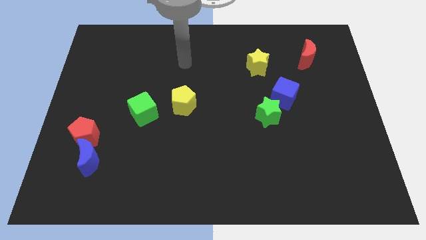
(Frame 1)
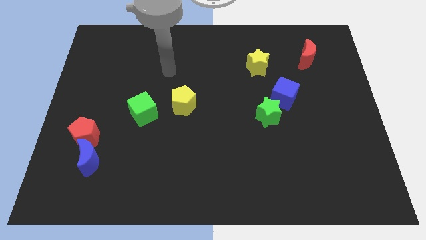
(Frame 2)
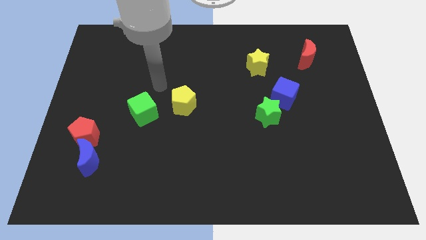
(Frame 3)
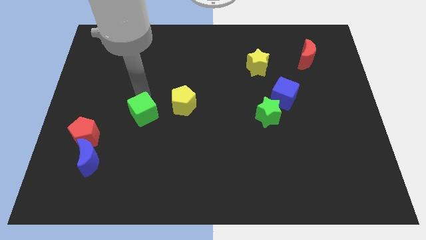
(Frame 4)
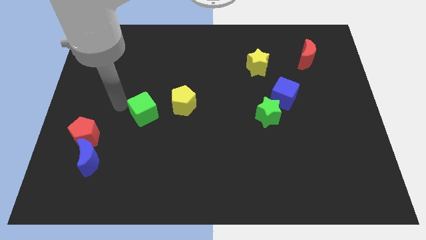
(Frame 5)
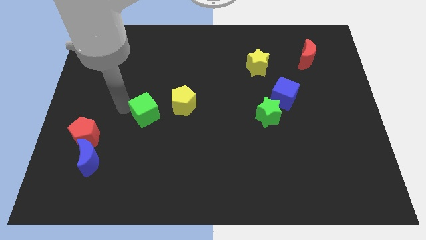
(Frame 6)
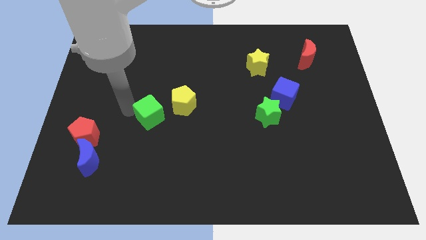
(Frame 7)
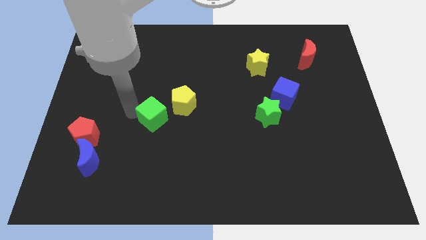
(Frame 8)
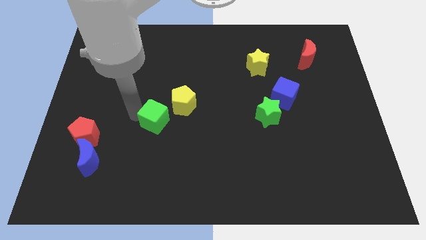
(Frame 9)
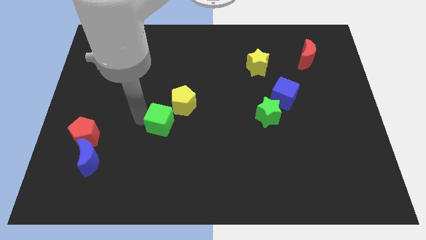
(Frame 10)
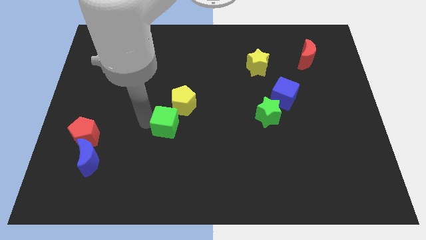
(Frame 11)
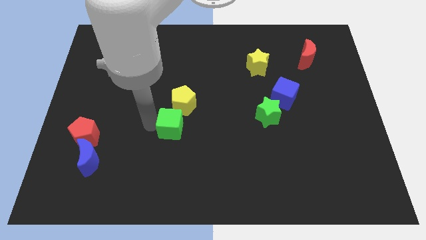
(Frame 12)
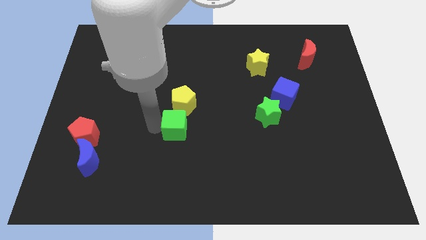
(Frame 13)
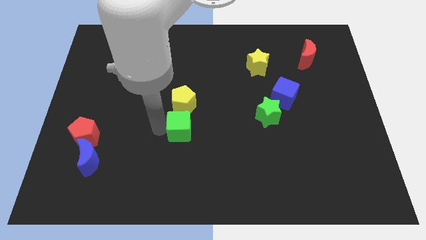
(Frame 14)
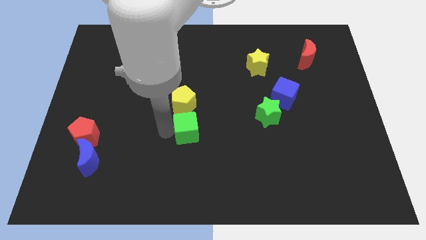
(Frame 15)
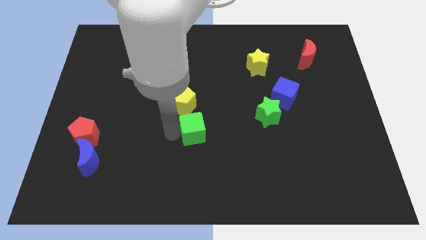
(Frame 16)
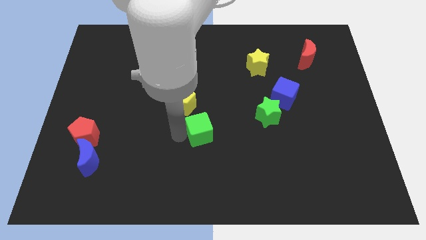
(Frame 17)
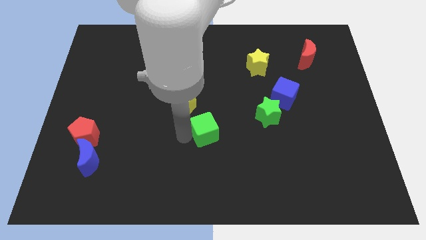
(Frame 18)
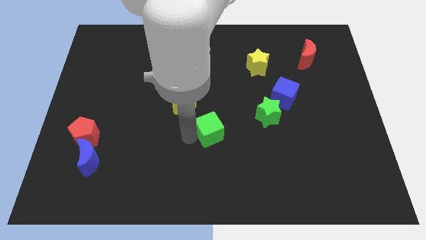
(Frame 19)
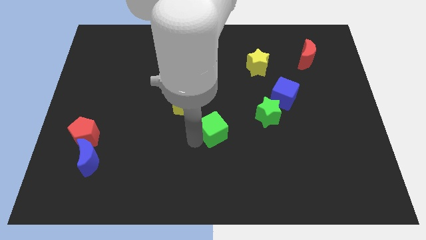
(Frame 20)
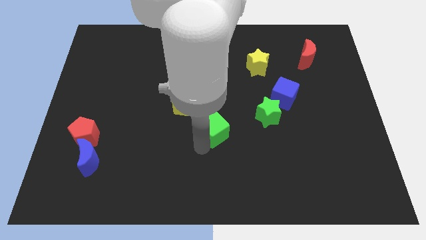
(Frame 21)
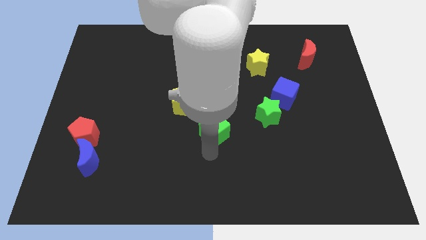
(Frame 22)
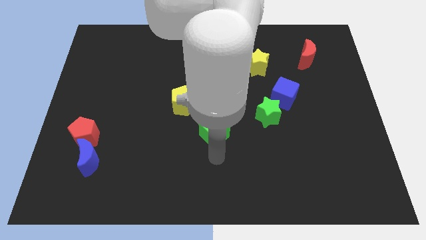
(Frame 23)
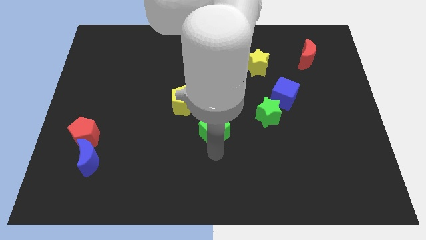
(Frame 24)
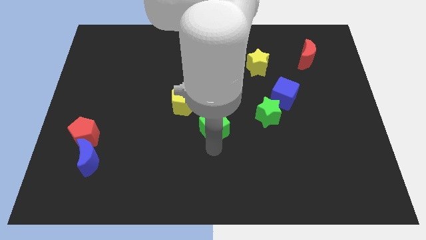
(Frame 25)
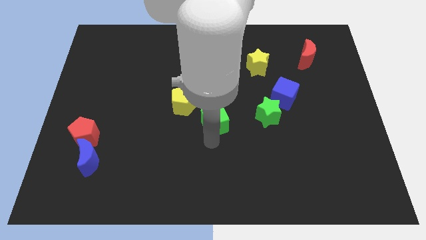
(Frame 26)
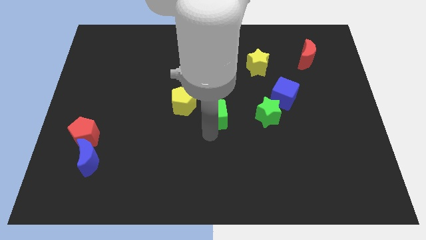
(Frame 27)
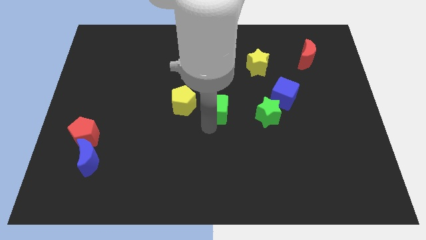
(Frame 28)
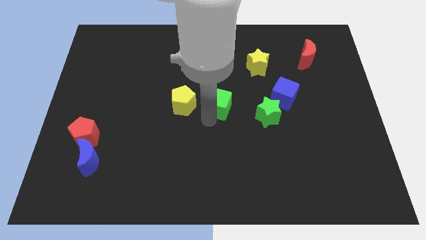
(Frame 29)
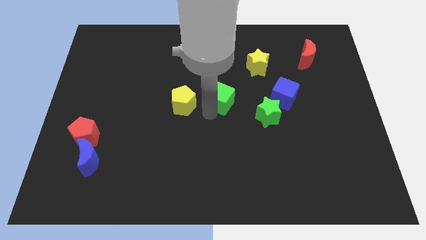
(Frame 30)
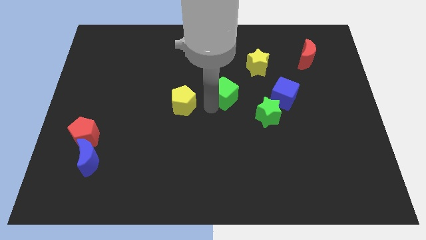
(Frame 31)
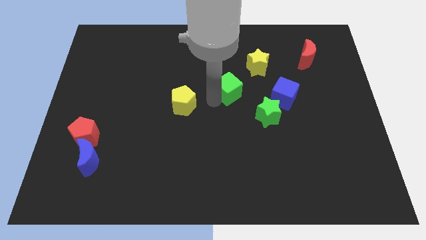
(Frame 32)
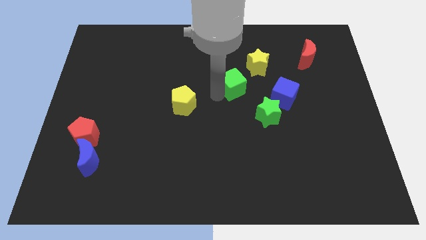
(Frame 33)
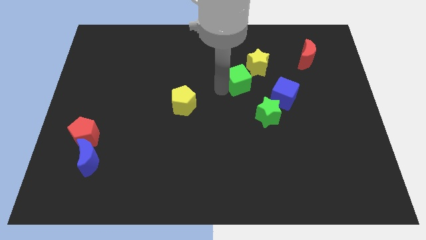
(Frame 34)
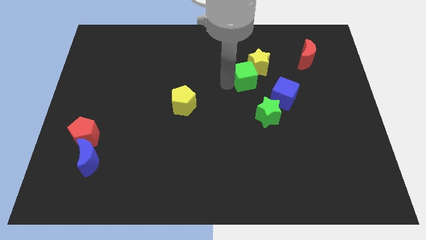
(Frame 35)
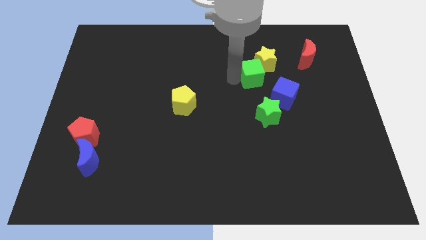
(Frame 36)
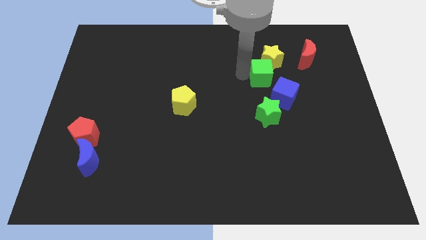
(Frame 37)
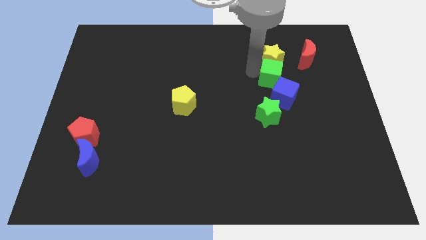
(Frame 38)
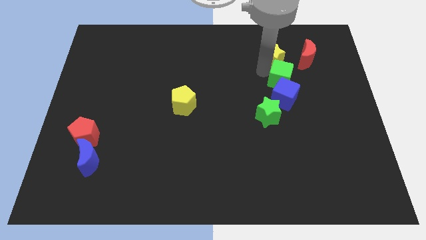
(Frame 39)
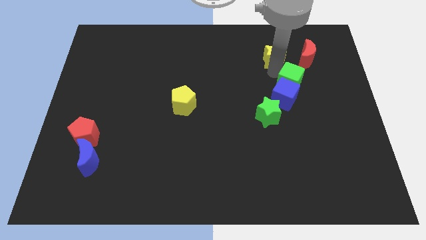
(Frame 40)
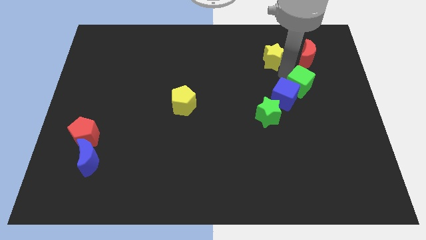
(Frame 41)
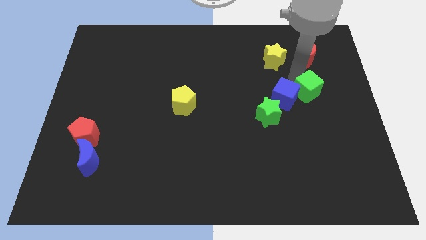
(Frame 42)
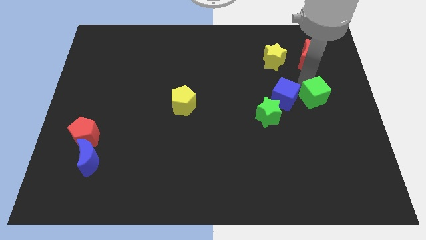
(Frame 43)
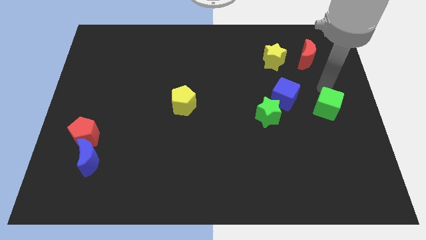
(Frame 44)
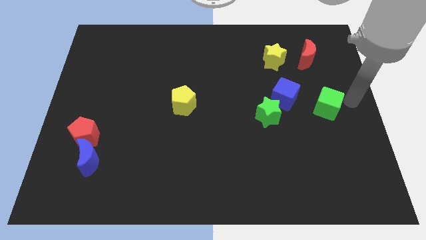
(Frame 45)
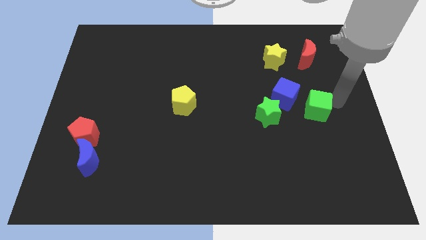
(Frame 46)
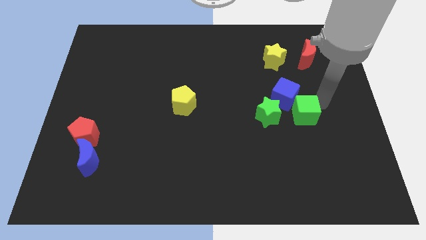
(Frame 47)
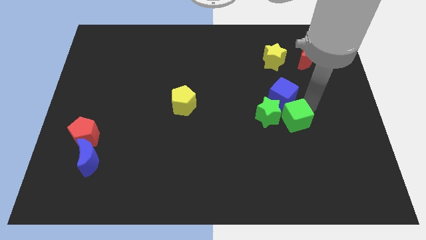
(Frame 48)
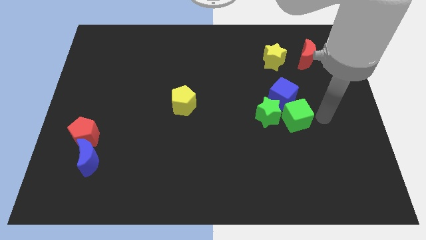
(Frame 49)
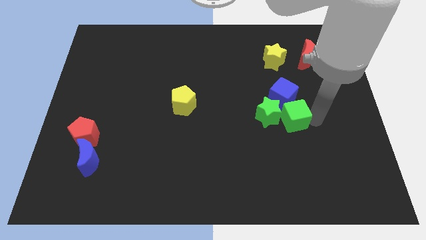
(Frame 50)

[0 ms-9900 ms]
put the green cube towards the green star

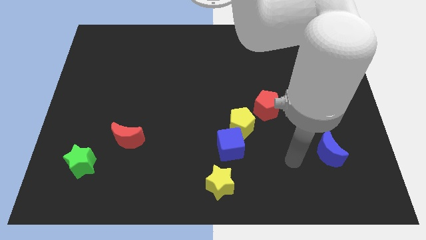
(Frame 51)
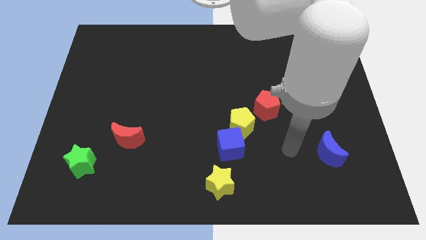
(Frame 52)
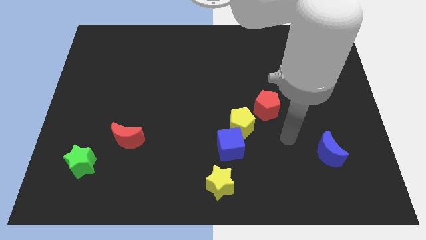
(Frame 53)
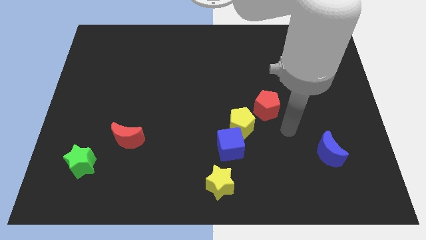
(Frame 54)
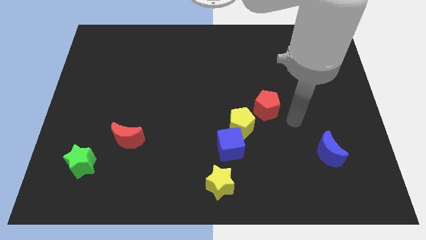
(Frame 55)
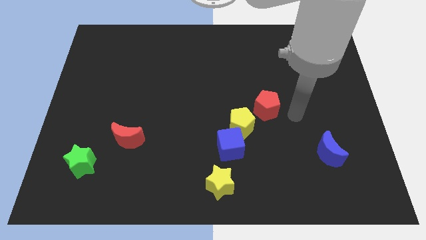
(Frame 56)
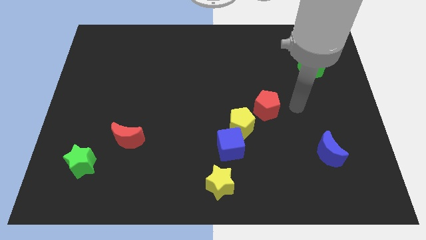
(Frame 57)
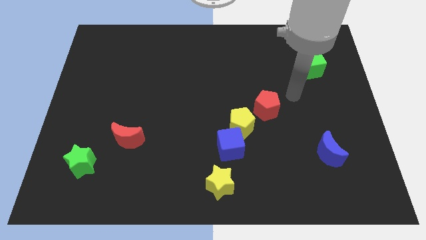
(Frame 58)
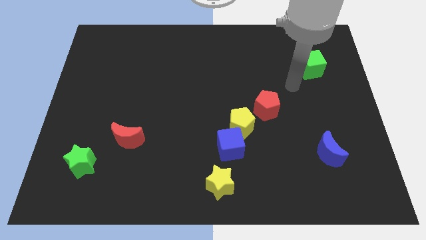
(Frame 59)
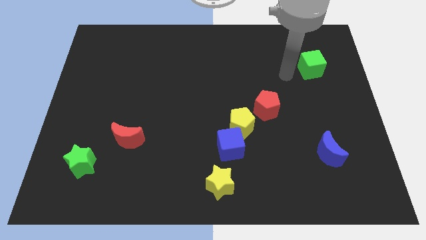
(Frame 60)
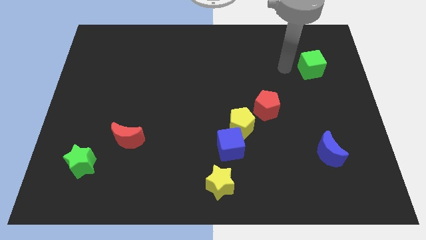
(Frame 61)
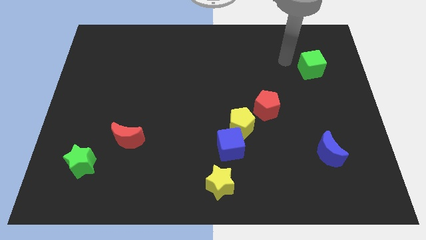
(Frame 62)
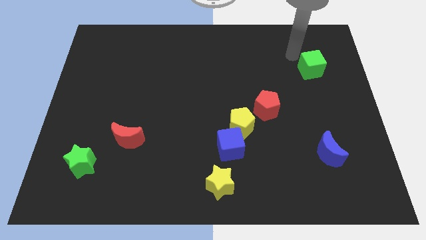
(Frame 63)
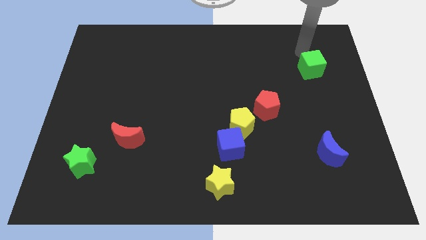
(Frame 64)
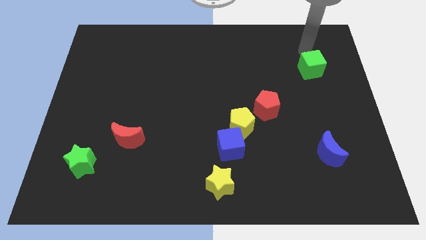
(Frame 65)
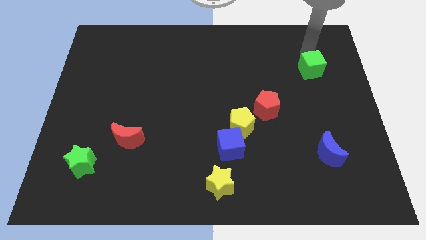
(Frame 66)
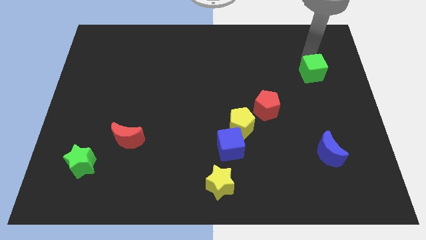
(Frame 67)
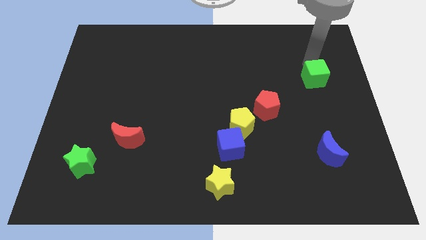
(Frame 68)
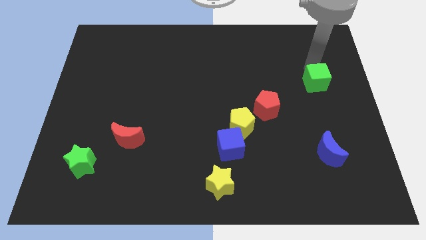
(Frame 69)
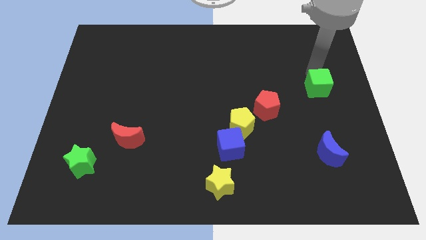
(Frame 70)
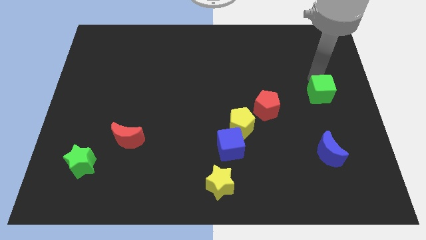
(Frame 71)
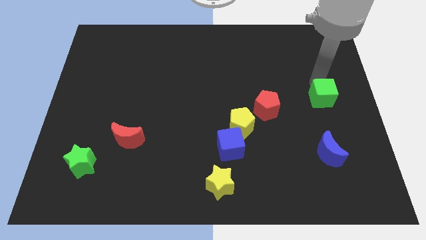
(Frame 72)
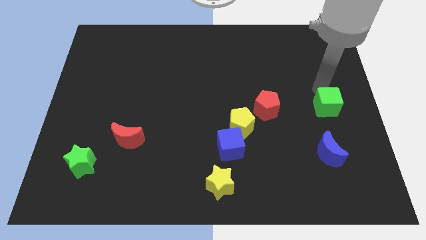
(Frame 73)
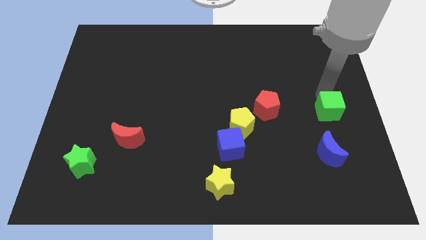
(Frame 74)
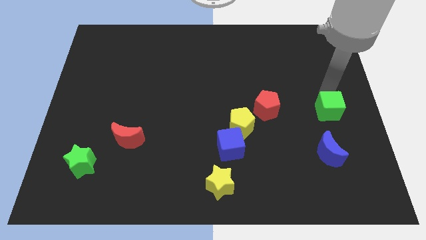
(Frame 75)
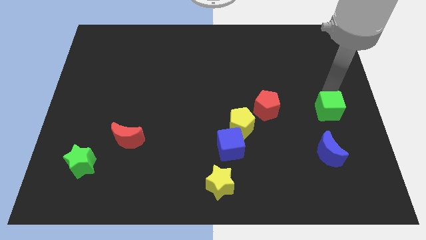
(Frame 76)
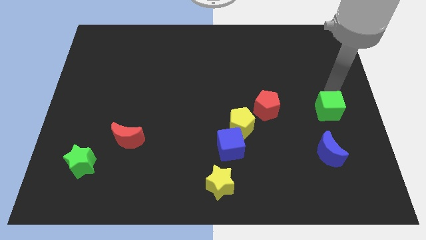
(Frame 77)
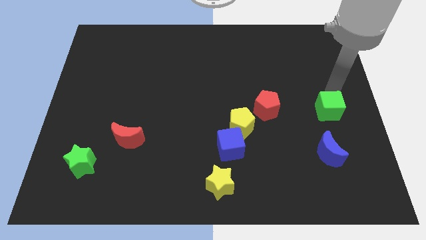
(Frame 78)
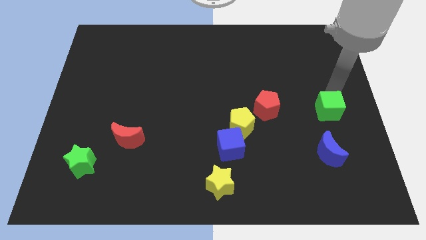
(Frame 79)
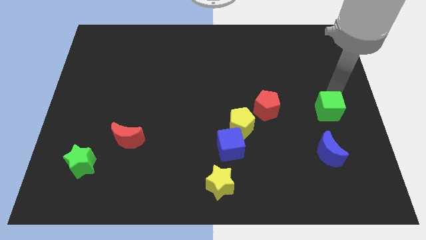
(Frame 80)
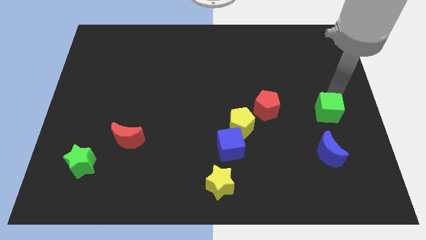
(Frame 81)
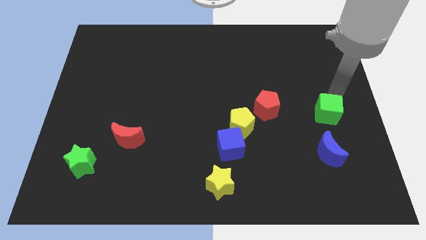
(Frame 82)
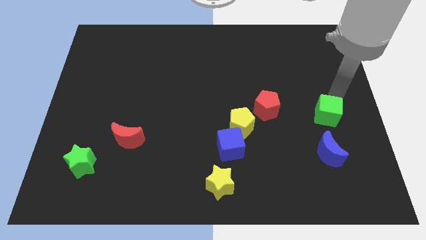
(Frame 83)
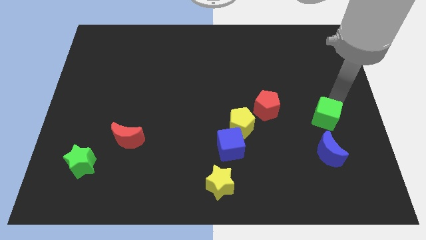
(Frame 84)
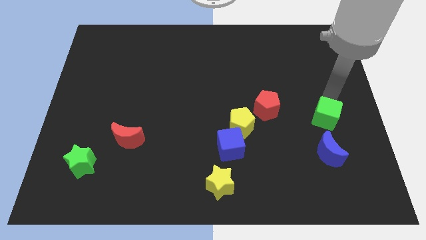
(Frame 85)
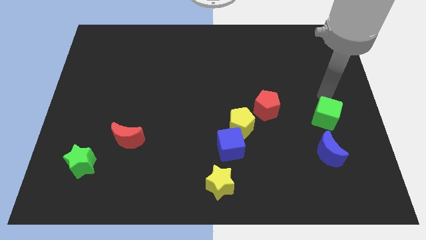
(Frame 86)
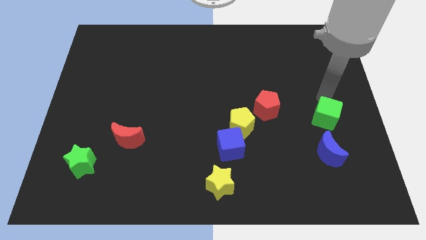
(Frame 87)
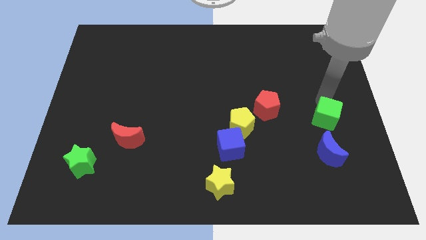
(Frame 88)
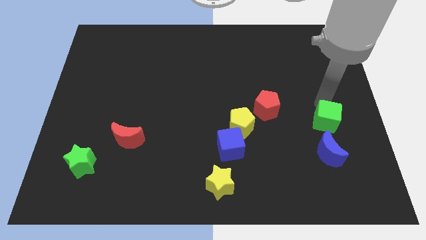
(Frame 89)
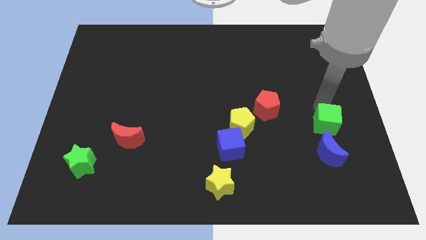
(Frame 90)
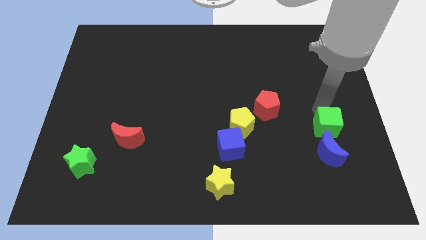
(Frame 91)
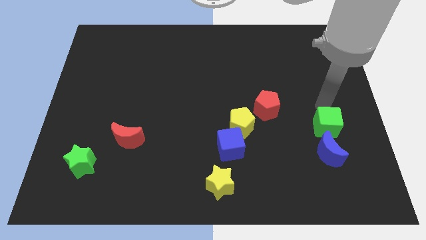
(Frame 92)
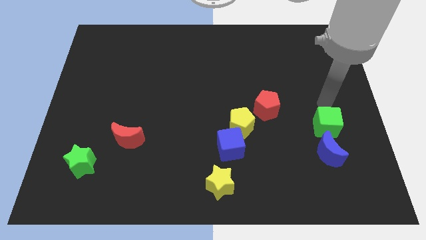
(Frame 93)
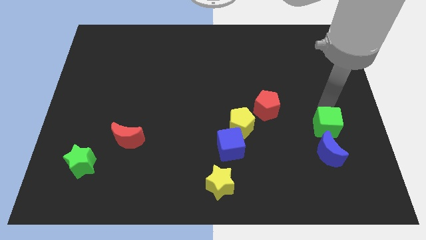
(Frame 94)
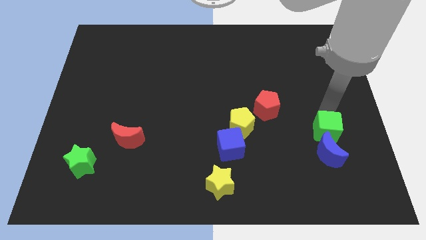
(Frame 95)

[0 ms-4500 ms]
put the green cube to the blue moon
